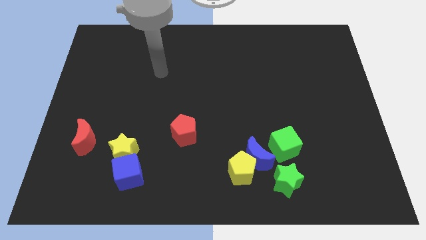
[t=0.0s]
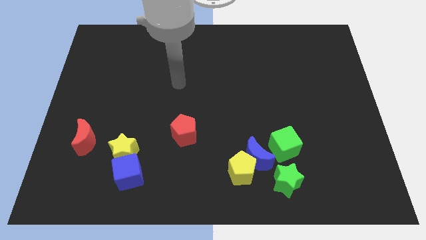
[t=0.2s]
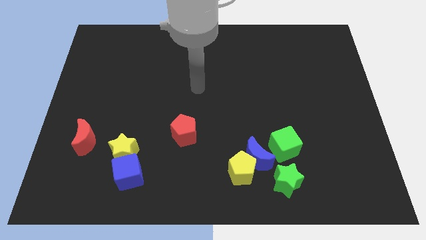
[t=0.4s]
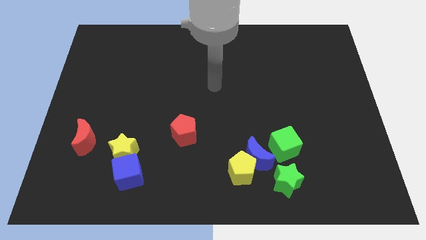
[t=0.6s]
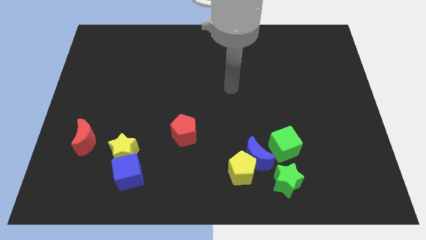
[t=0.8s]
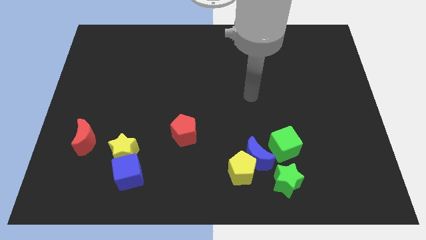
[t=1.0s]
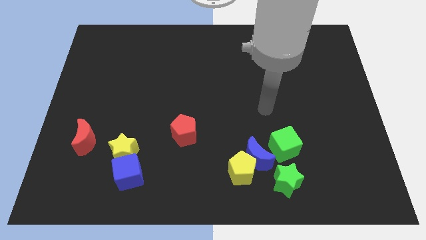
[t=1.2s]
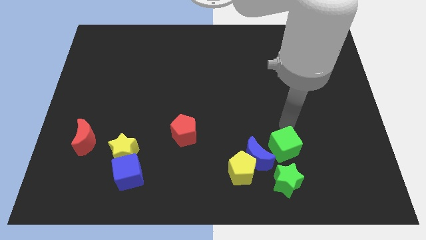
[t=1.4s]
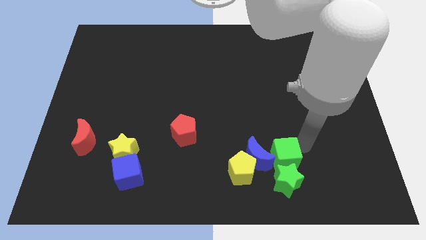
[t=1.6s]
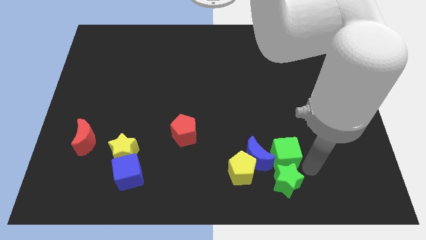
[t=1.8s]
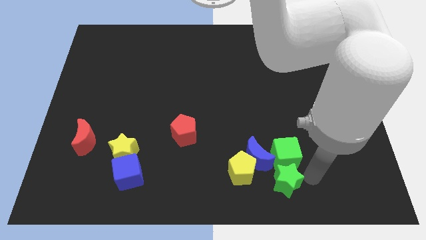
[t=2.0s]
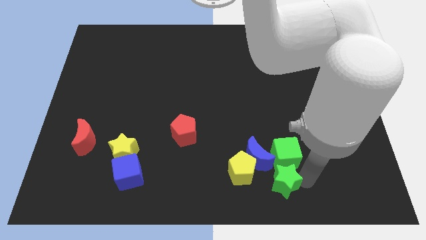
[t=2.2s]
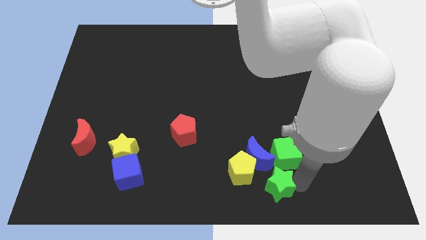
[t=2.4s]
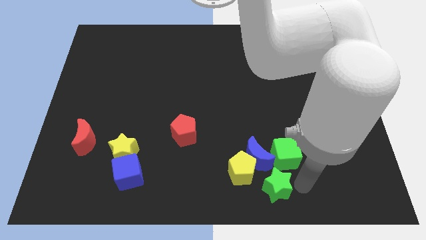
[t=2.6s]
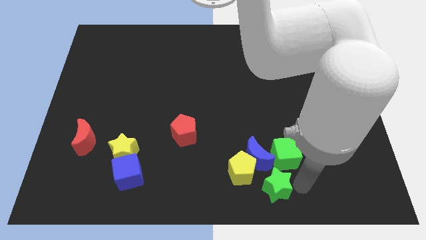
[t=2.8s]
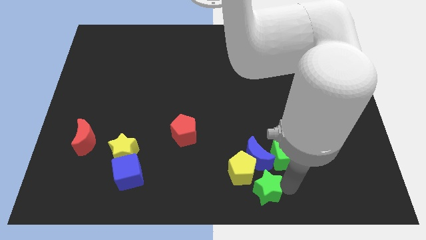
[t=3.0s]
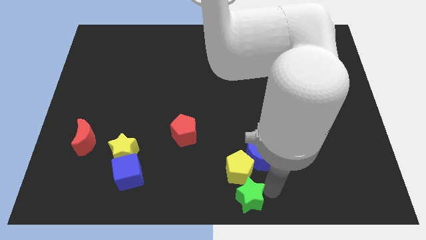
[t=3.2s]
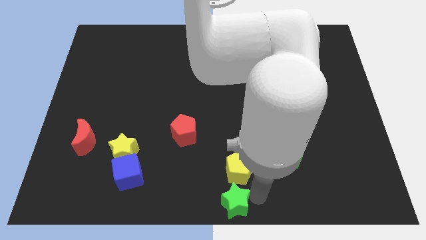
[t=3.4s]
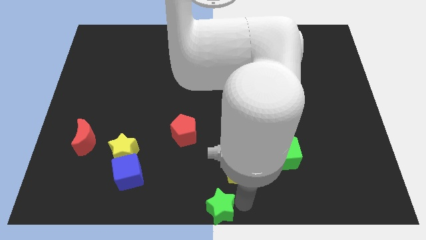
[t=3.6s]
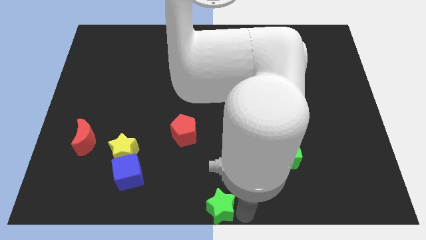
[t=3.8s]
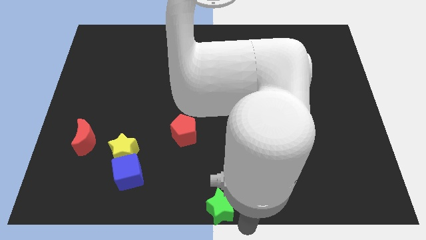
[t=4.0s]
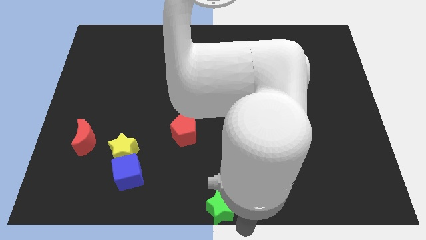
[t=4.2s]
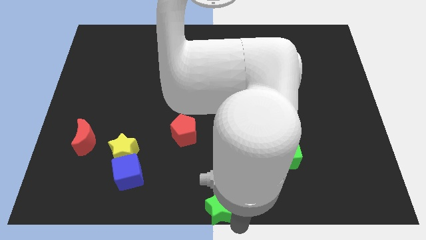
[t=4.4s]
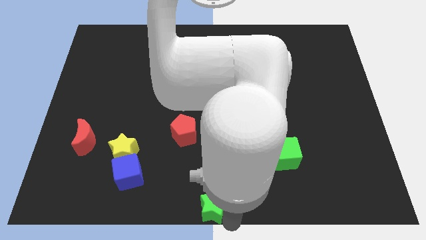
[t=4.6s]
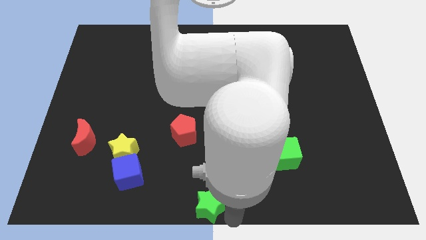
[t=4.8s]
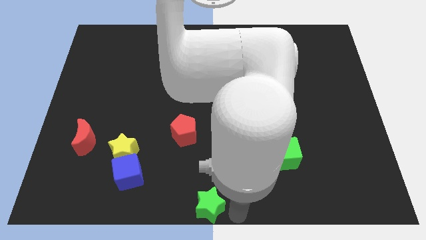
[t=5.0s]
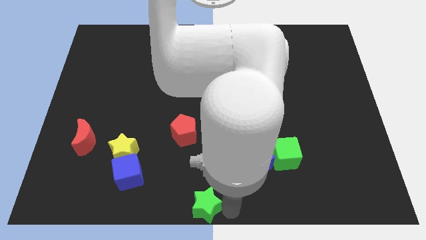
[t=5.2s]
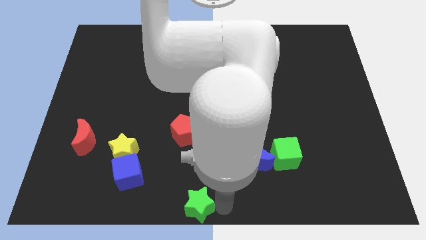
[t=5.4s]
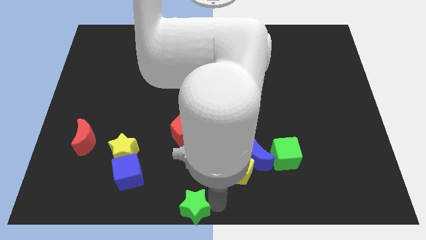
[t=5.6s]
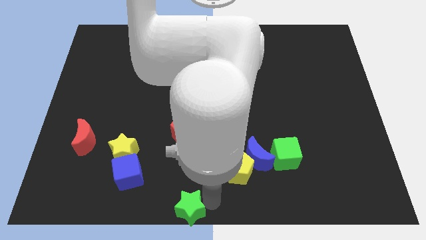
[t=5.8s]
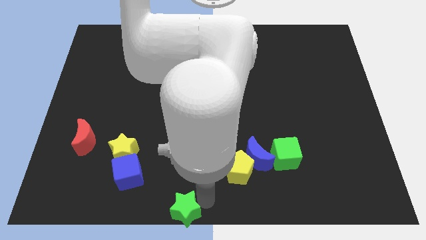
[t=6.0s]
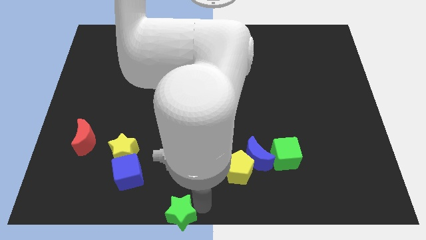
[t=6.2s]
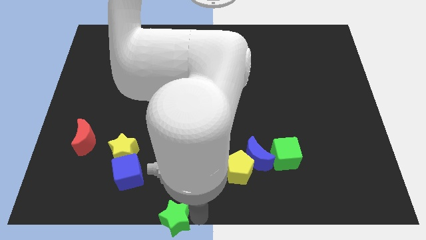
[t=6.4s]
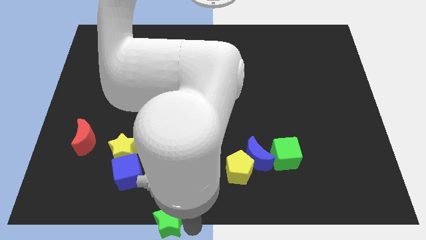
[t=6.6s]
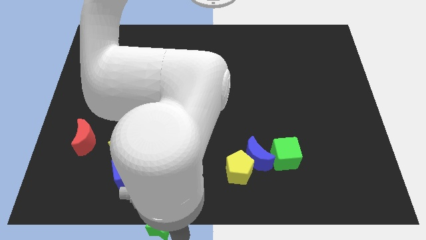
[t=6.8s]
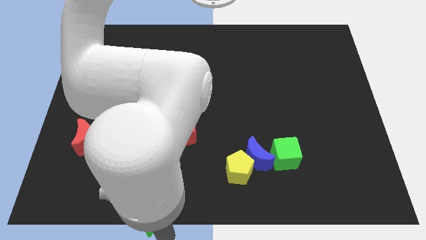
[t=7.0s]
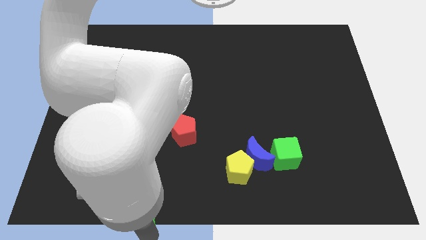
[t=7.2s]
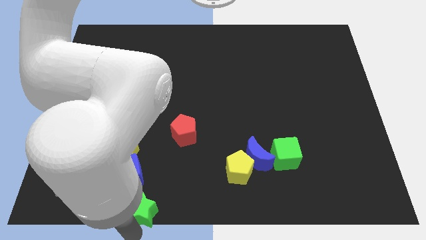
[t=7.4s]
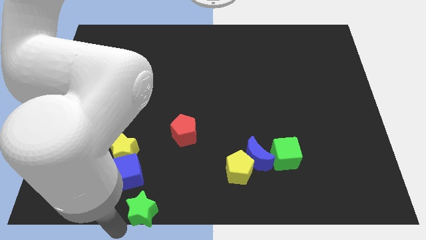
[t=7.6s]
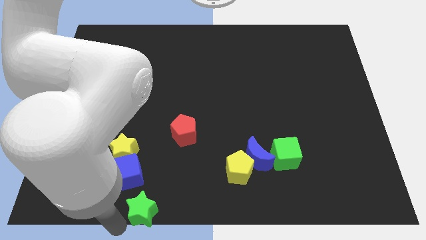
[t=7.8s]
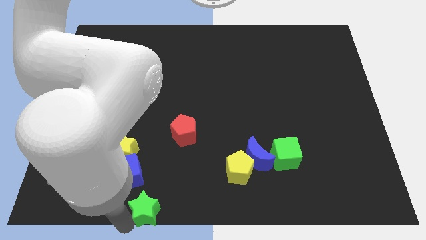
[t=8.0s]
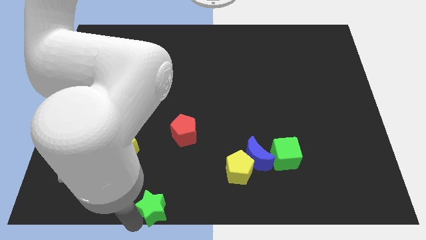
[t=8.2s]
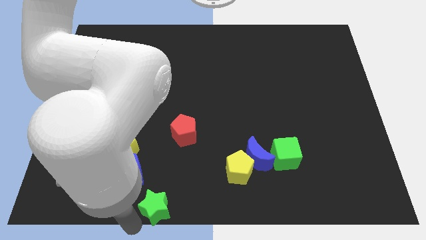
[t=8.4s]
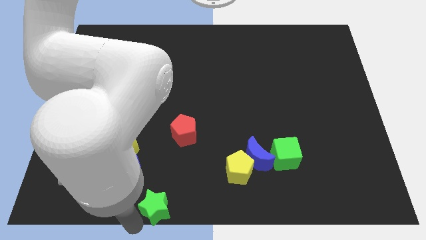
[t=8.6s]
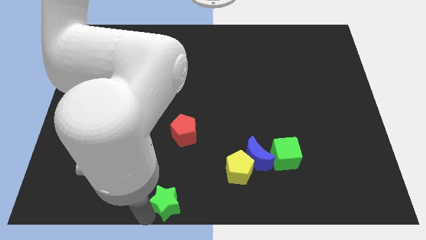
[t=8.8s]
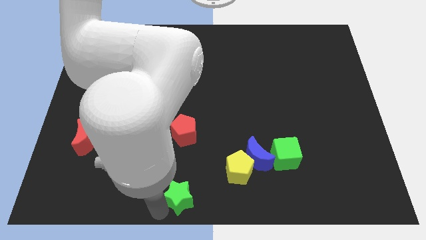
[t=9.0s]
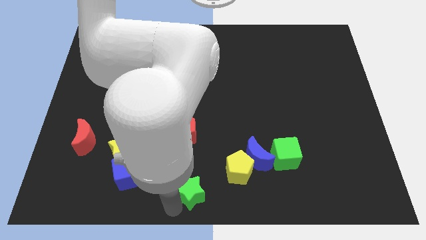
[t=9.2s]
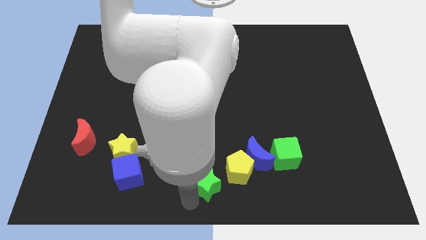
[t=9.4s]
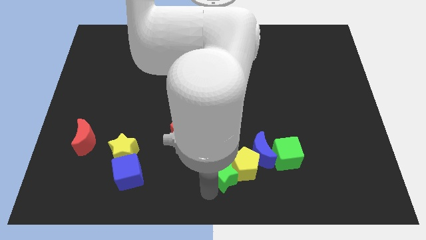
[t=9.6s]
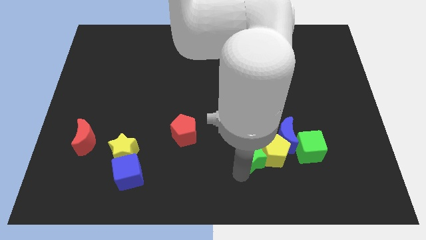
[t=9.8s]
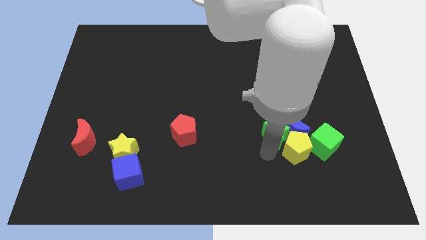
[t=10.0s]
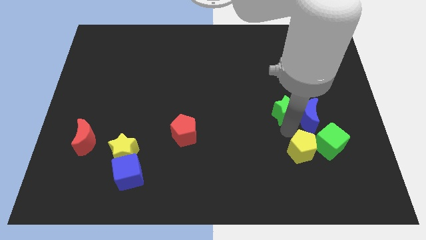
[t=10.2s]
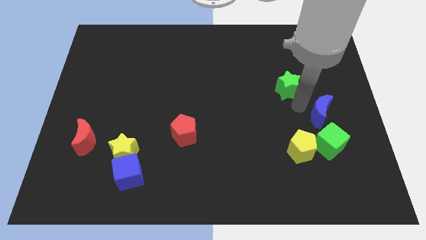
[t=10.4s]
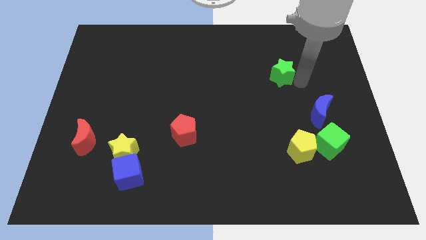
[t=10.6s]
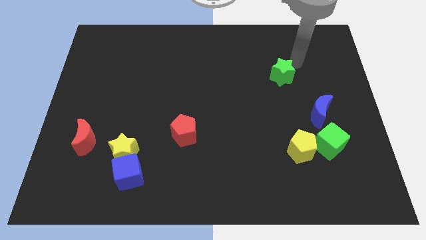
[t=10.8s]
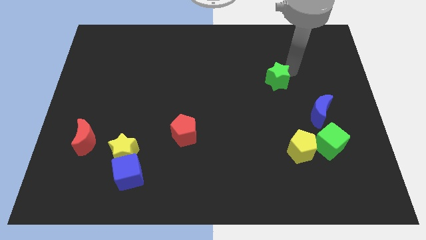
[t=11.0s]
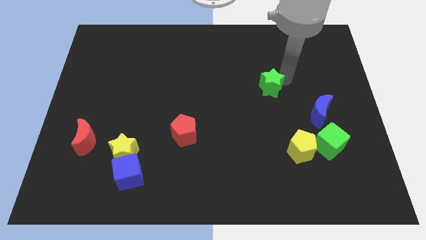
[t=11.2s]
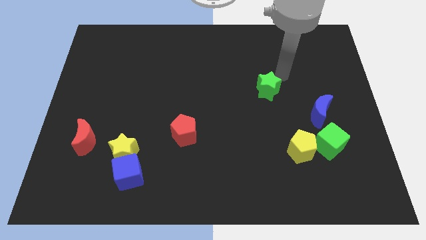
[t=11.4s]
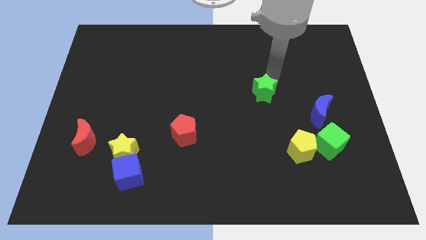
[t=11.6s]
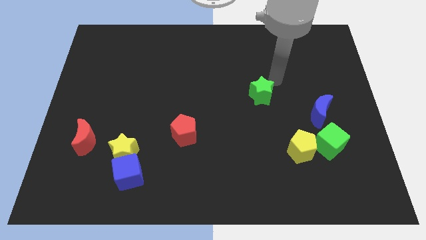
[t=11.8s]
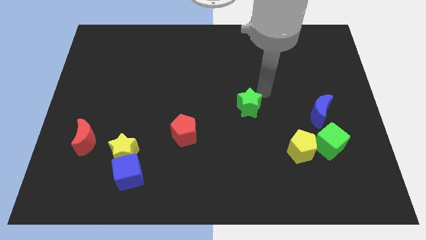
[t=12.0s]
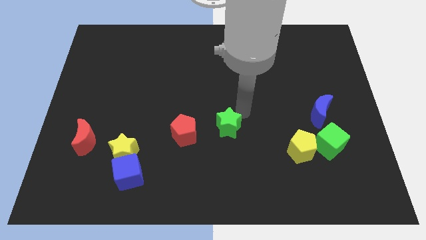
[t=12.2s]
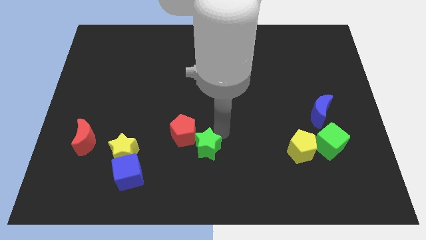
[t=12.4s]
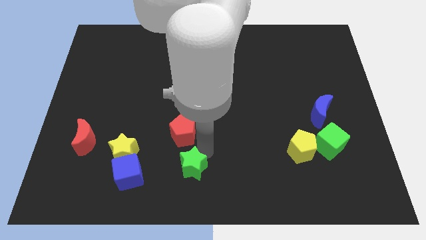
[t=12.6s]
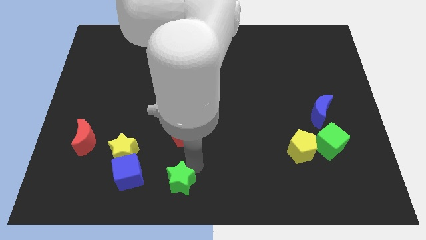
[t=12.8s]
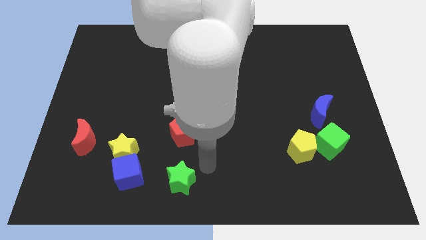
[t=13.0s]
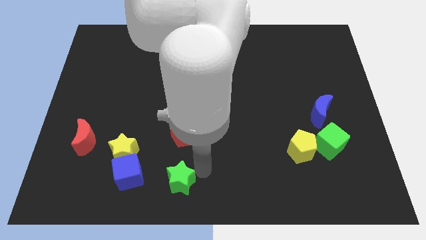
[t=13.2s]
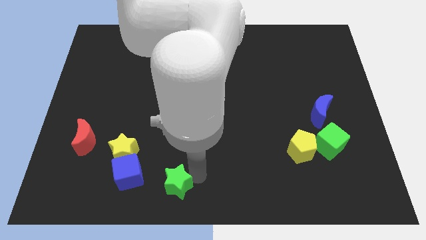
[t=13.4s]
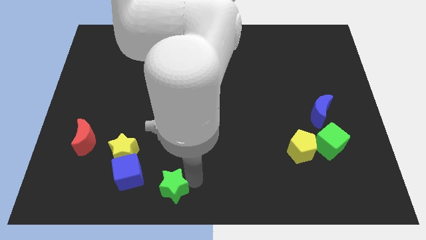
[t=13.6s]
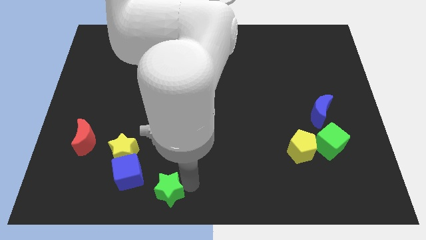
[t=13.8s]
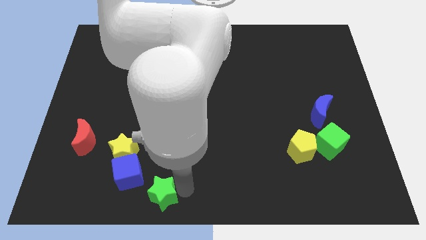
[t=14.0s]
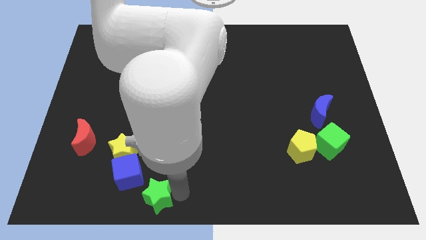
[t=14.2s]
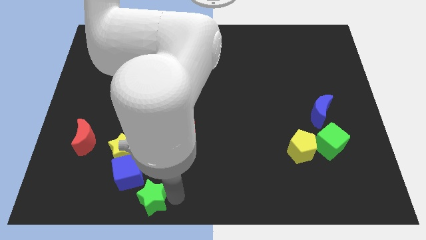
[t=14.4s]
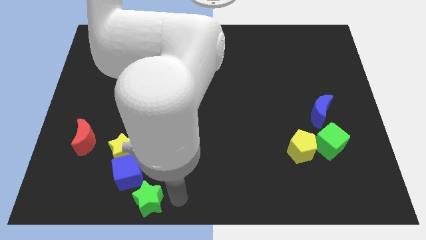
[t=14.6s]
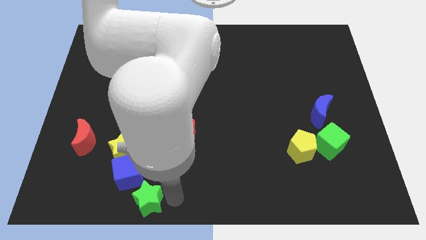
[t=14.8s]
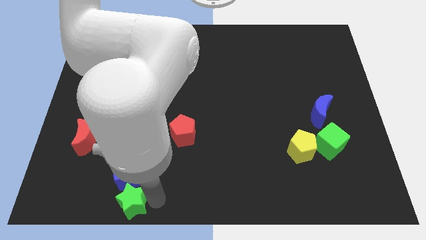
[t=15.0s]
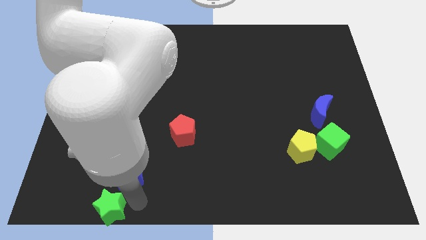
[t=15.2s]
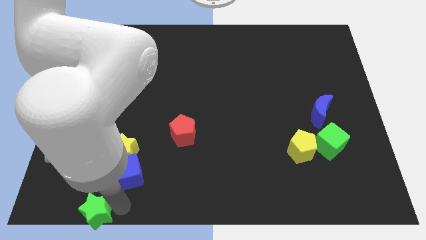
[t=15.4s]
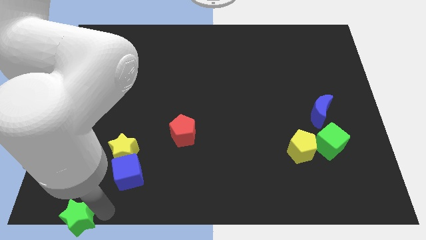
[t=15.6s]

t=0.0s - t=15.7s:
move the green star to the lower left corner

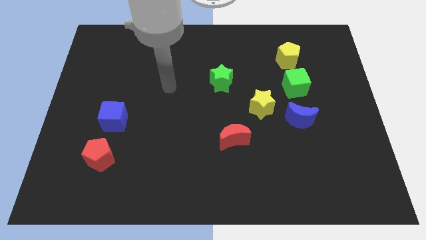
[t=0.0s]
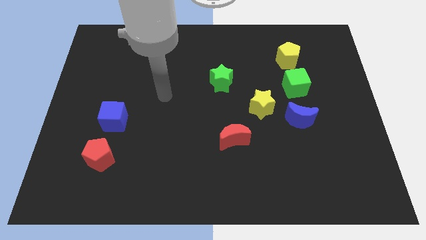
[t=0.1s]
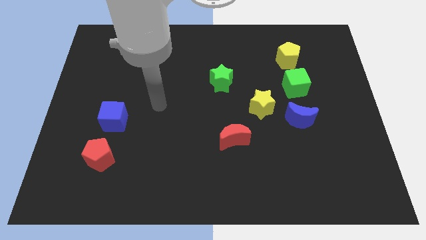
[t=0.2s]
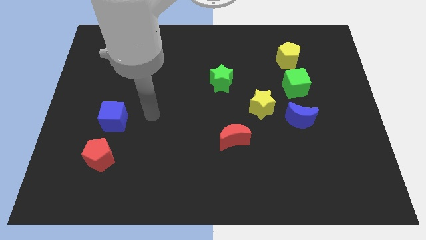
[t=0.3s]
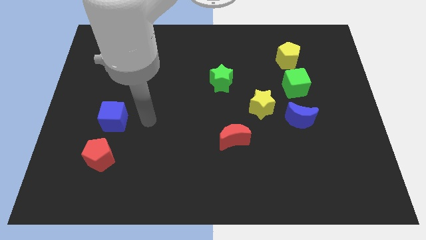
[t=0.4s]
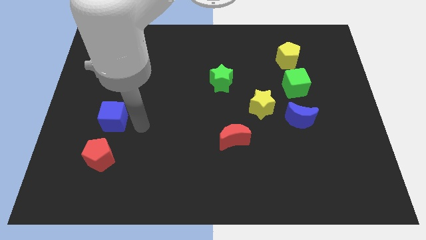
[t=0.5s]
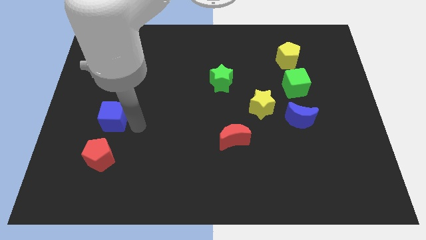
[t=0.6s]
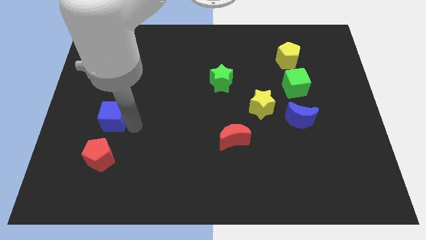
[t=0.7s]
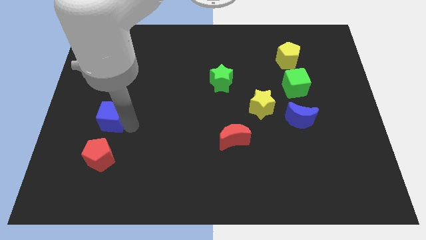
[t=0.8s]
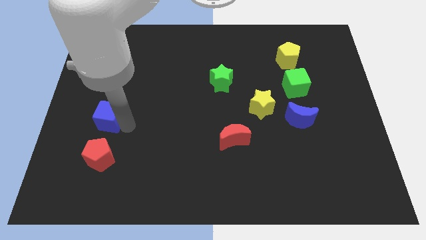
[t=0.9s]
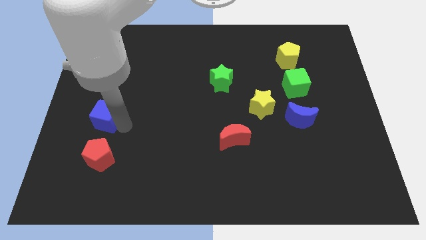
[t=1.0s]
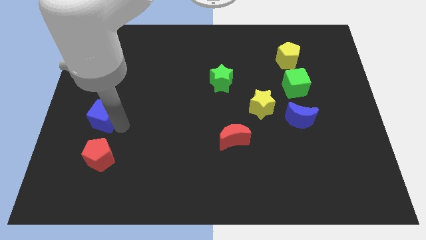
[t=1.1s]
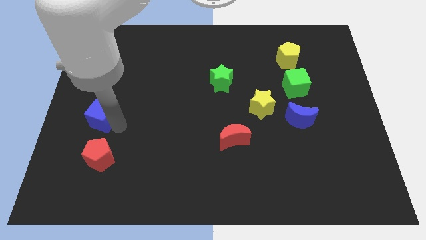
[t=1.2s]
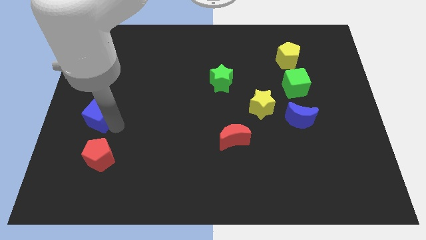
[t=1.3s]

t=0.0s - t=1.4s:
slide the blue cube to the center left
